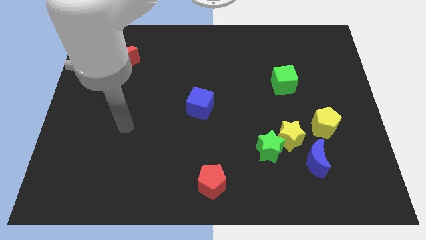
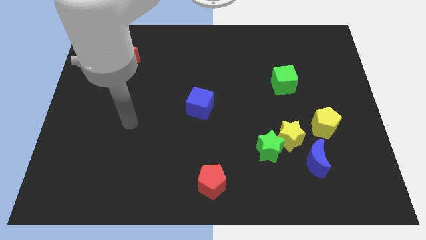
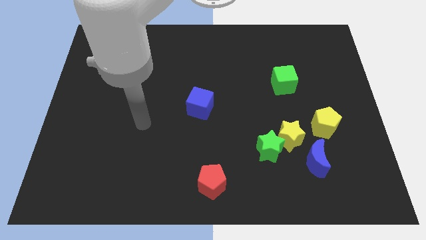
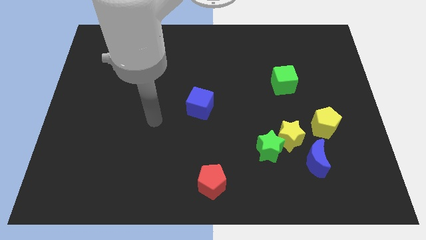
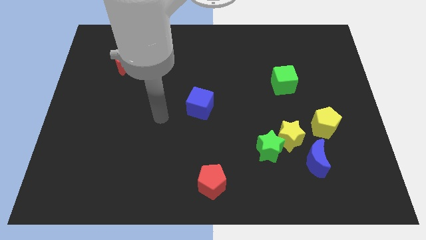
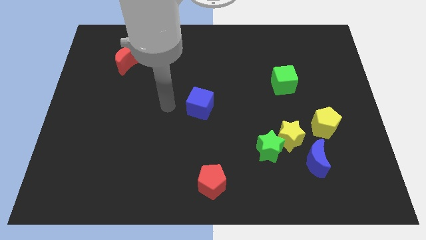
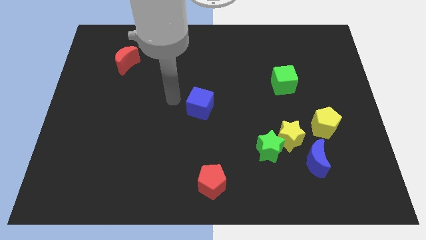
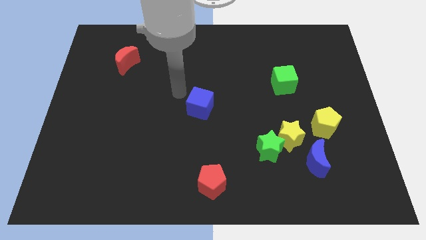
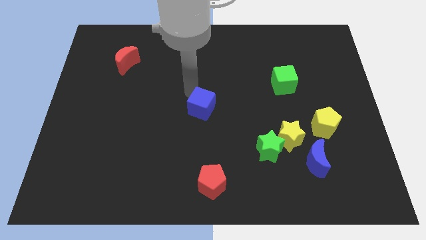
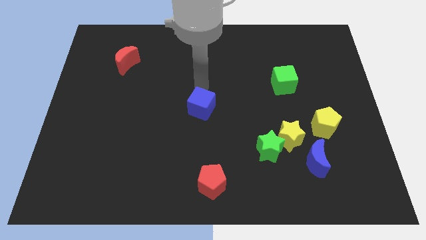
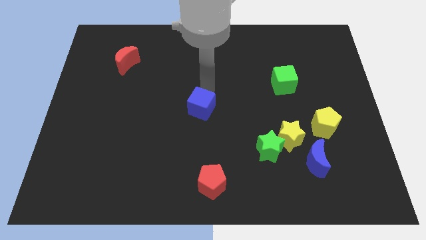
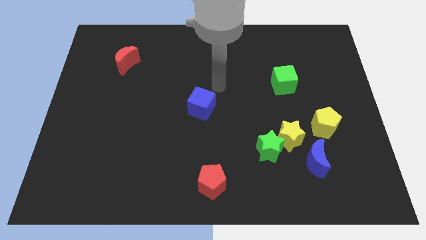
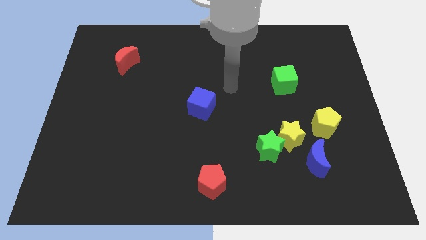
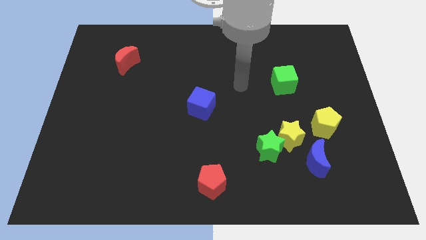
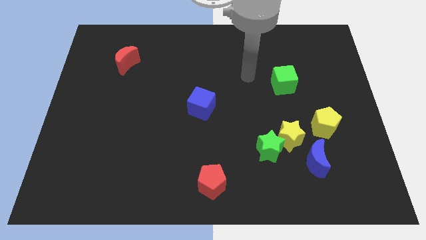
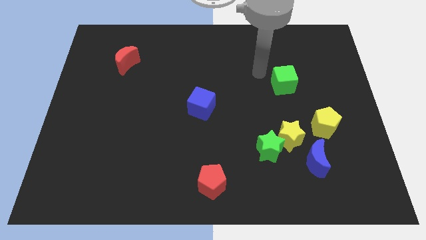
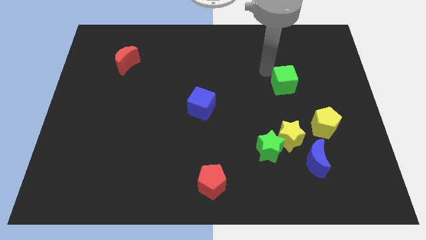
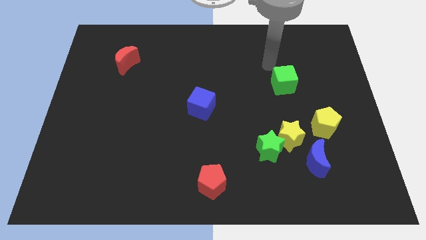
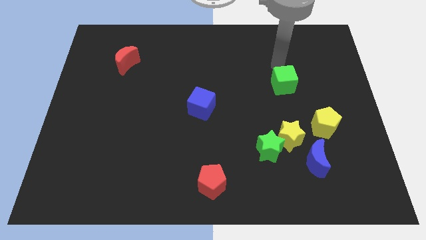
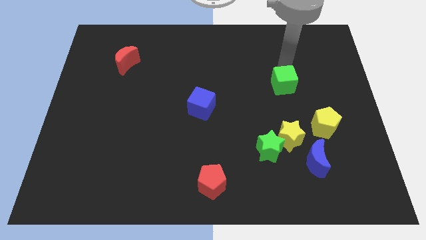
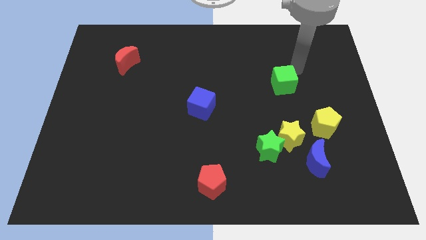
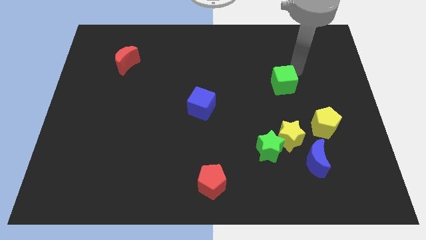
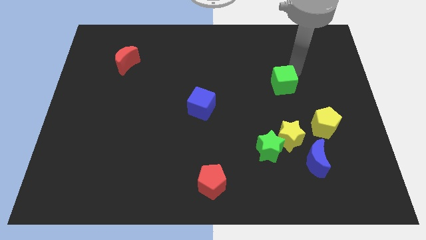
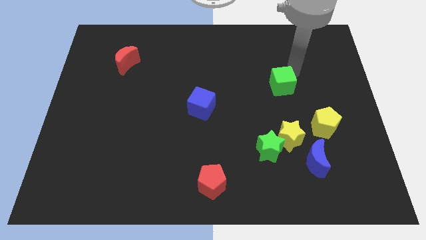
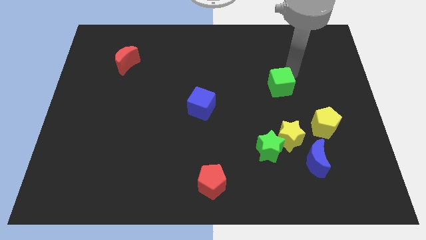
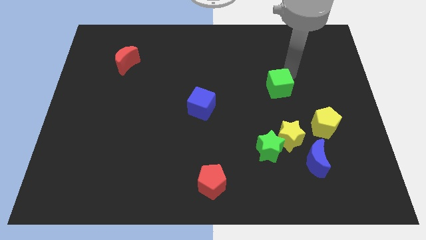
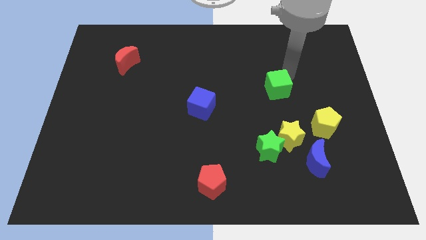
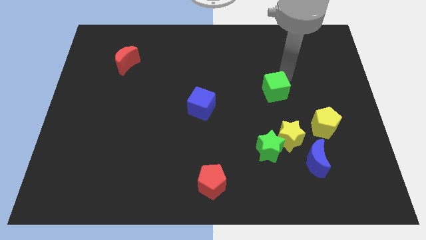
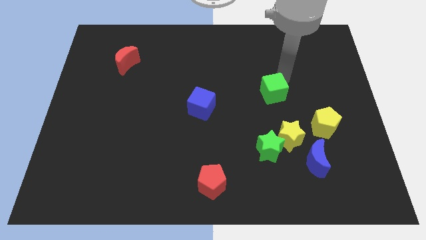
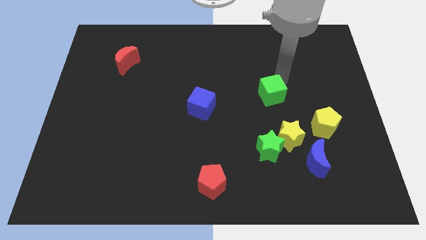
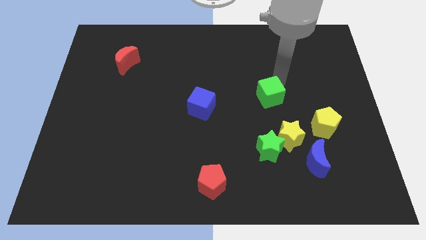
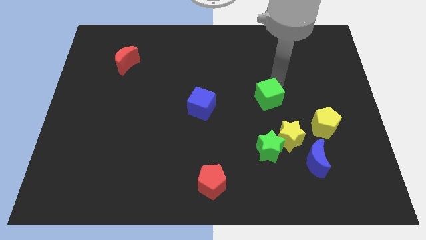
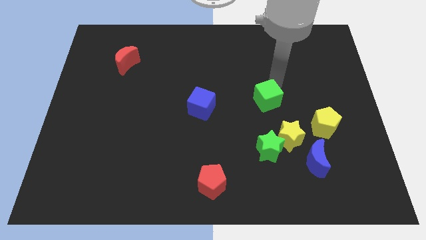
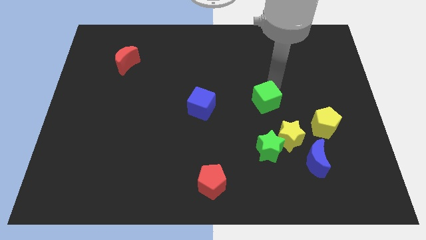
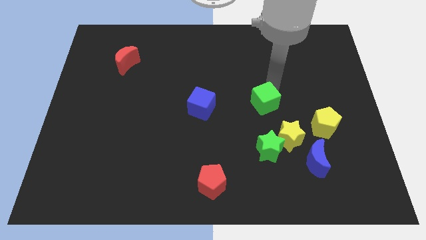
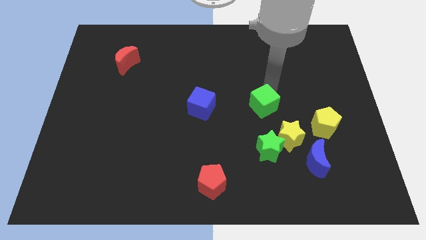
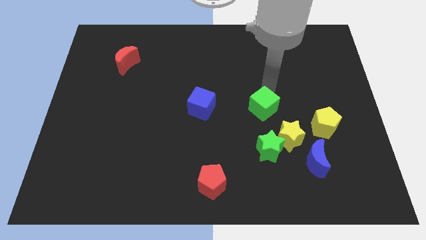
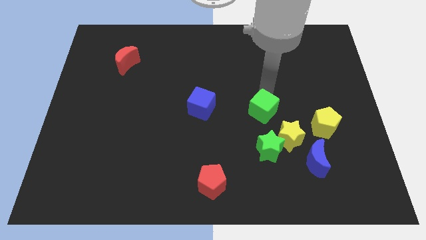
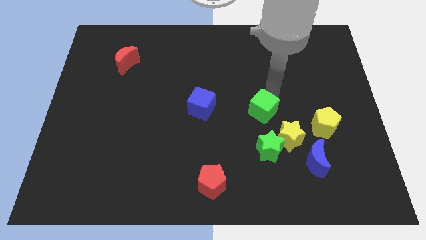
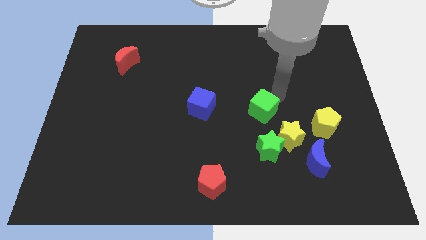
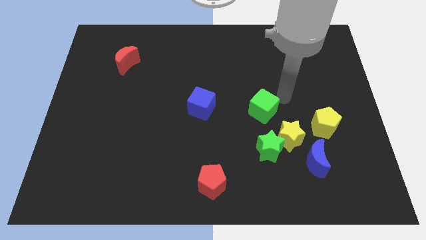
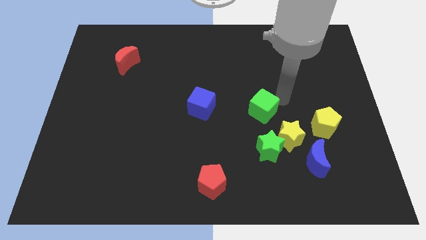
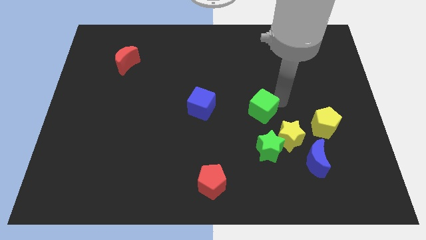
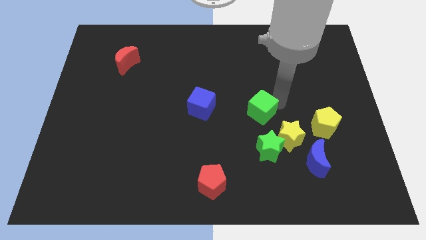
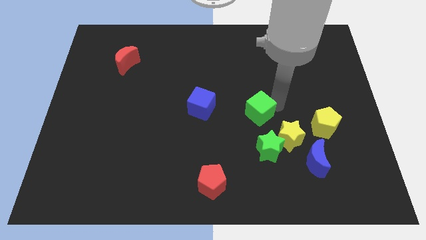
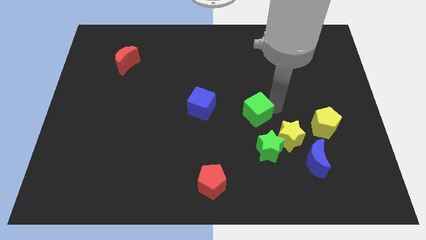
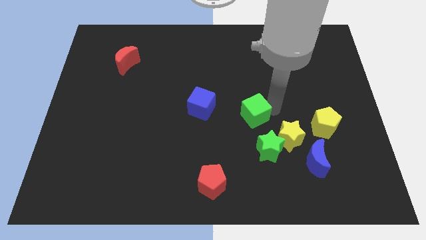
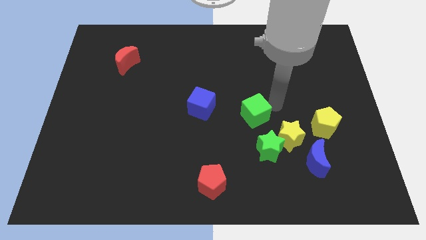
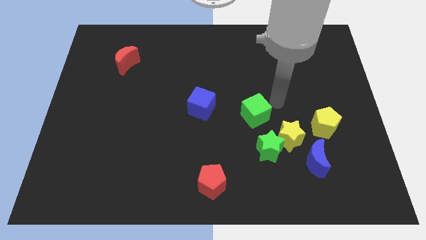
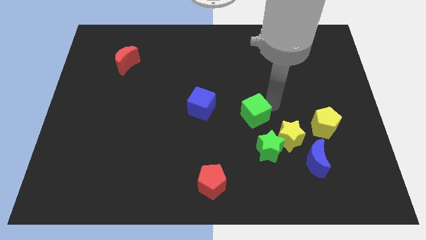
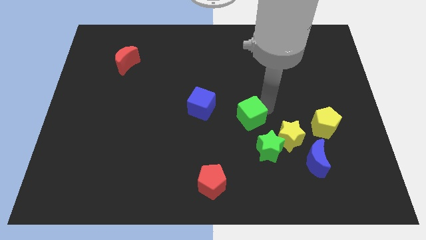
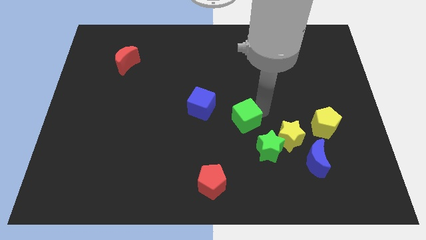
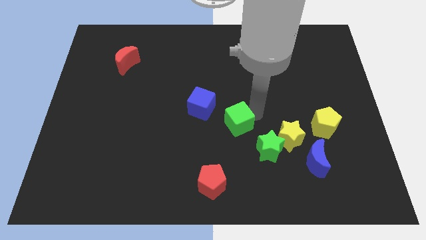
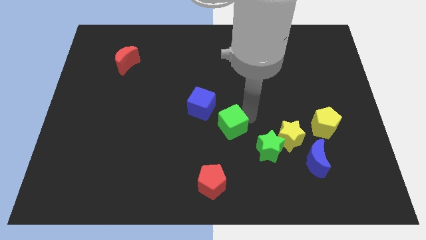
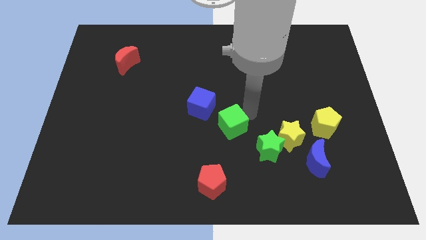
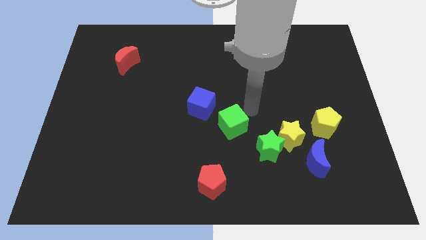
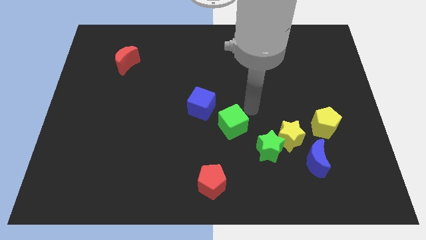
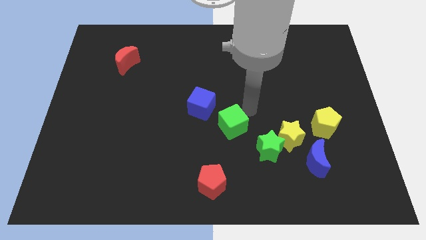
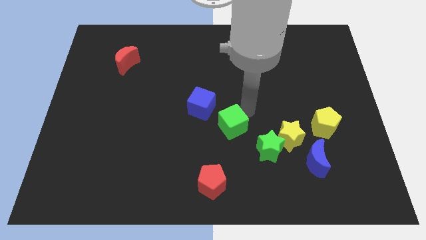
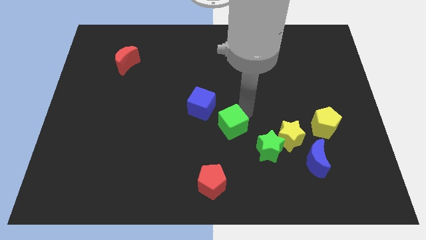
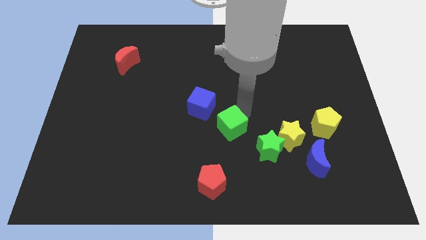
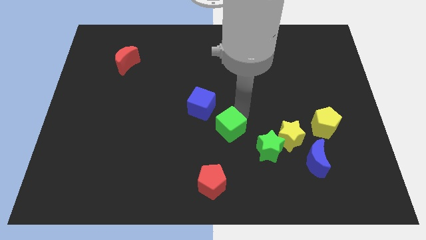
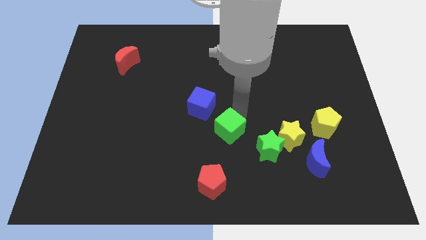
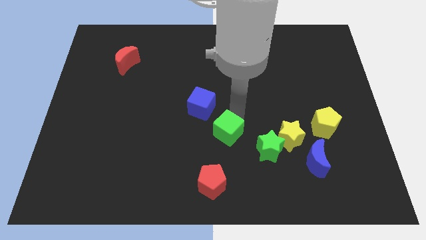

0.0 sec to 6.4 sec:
move the green cube diagonally down and left

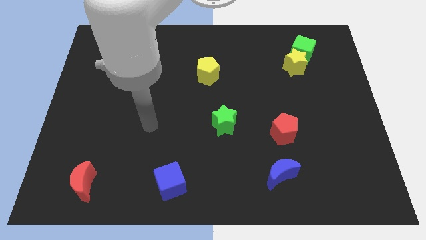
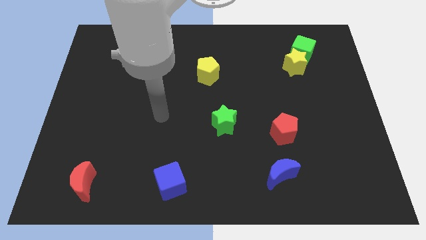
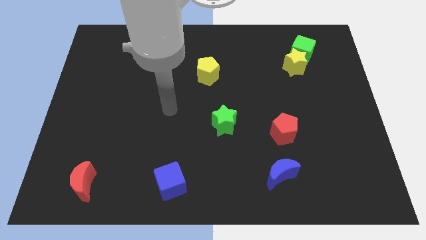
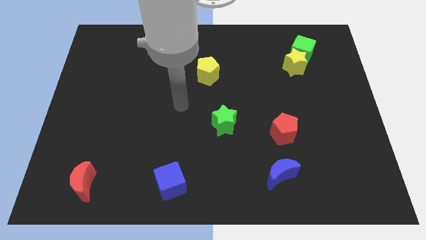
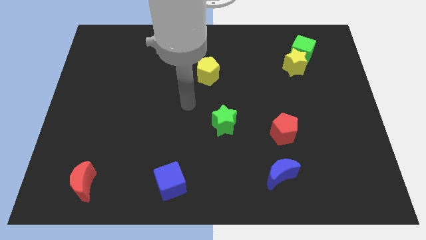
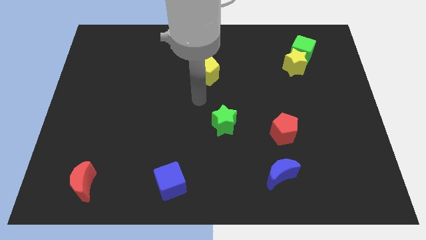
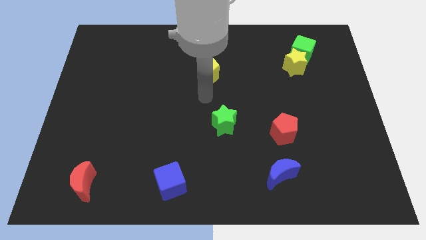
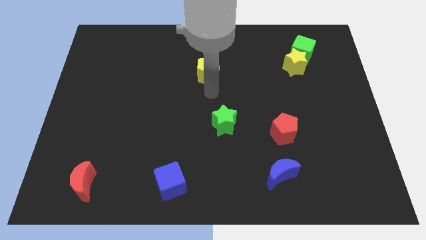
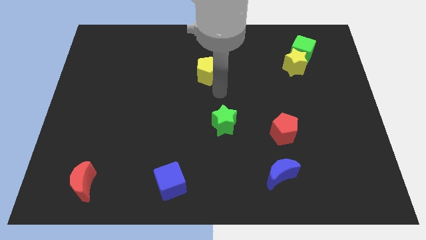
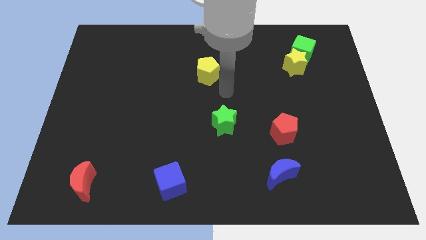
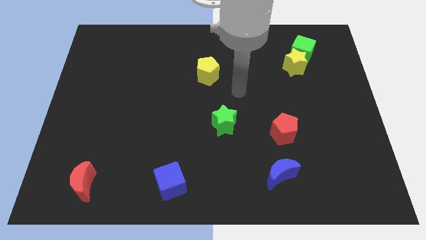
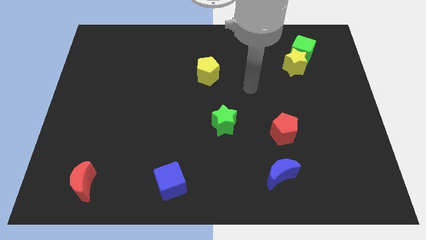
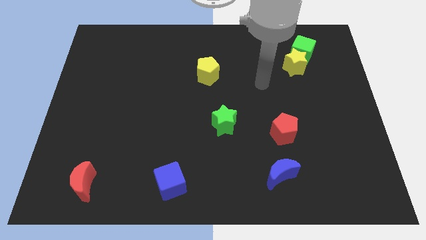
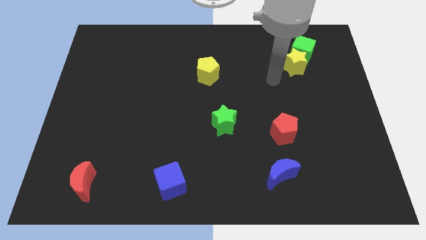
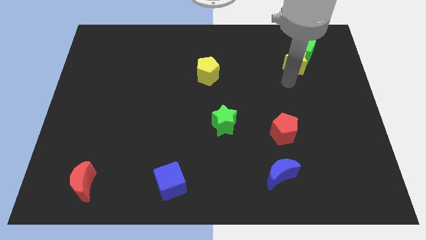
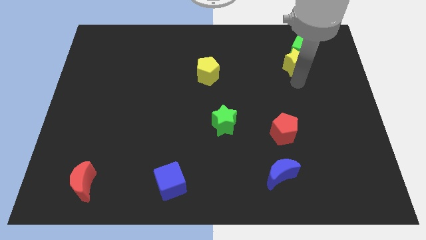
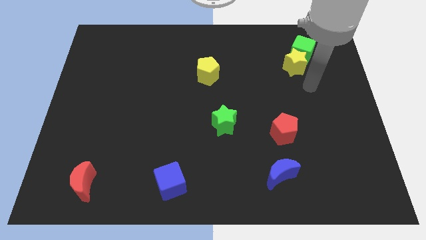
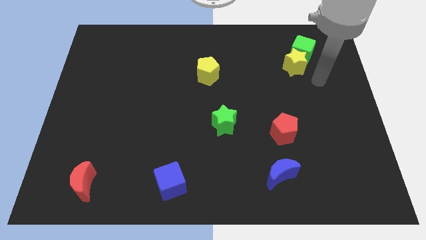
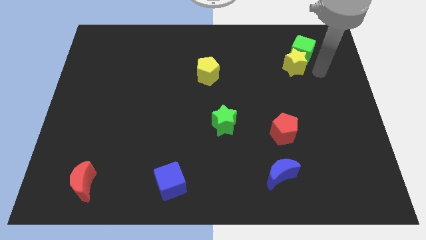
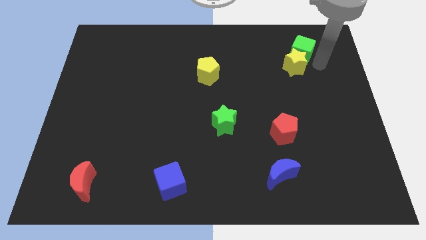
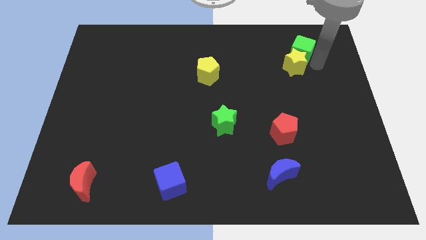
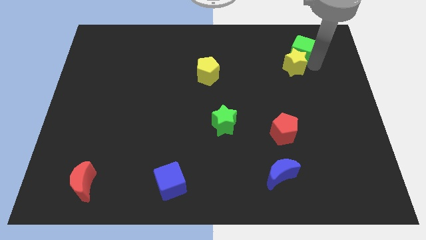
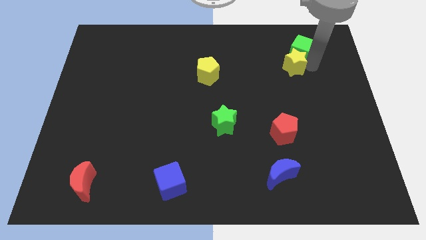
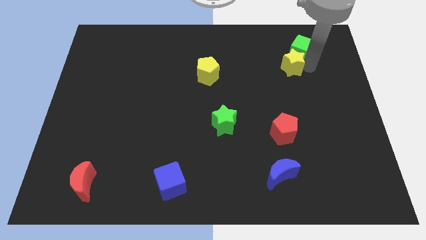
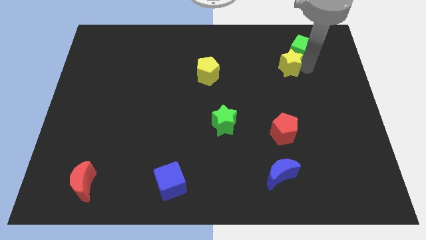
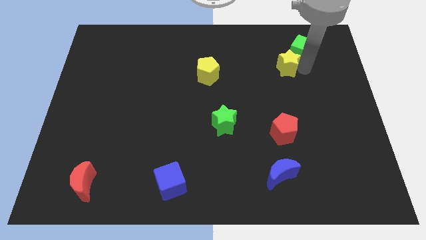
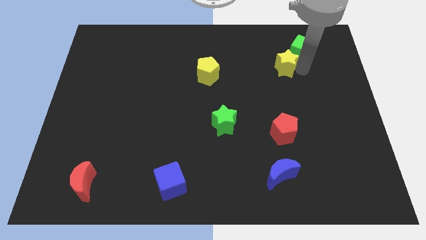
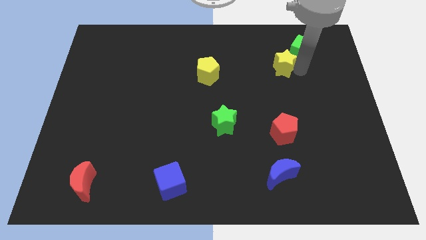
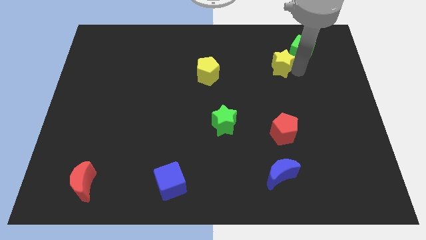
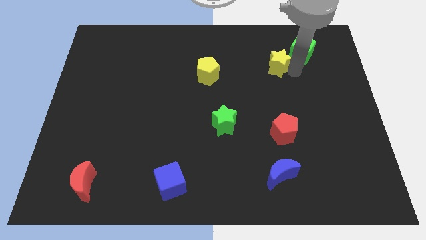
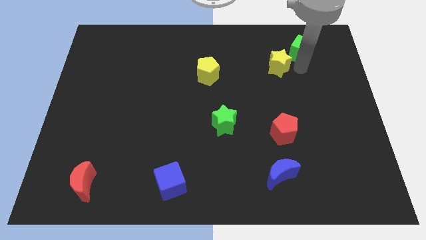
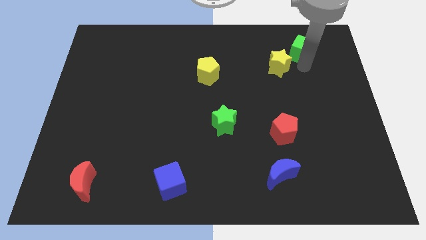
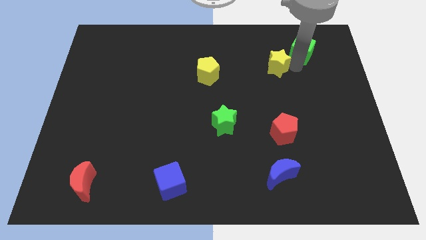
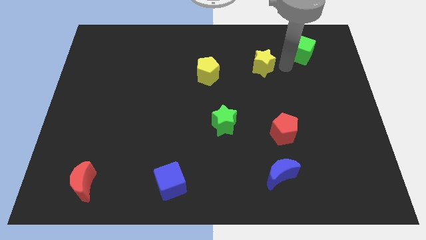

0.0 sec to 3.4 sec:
slightly move the yellow star left
